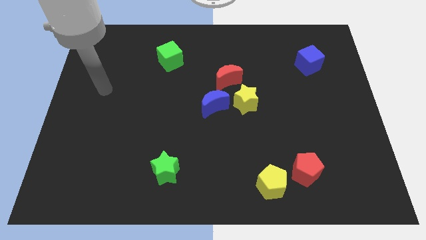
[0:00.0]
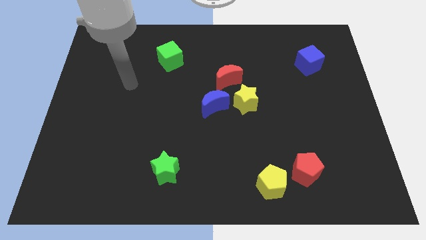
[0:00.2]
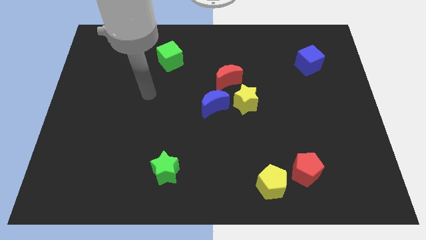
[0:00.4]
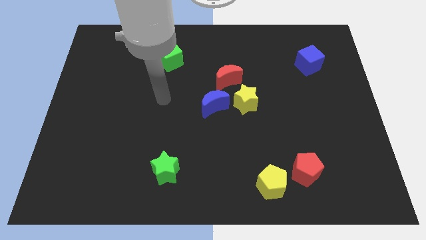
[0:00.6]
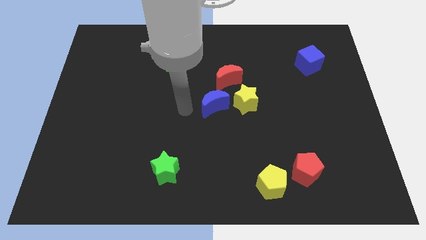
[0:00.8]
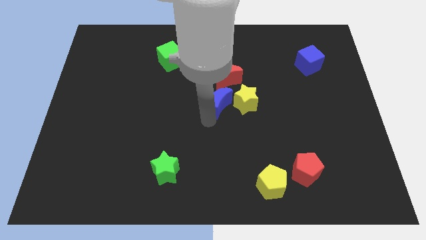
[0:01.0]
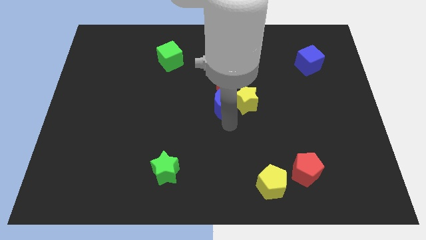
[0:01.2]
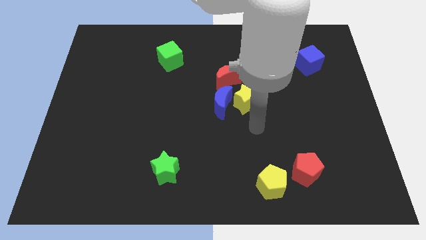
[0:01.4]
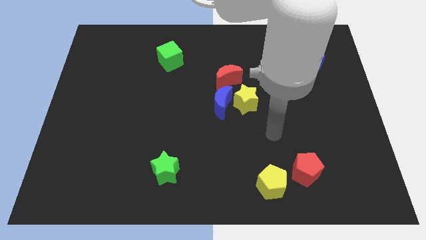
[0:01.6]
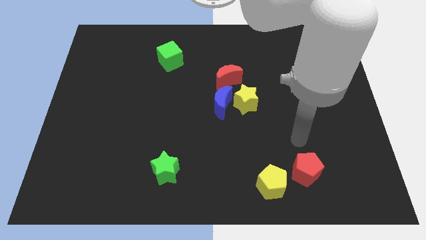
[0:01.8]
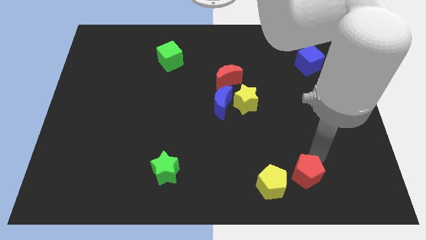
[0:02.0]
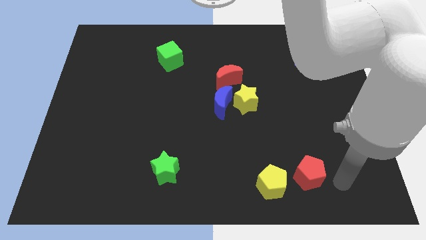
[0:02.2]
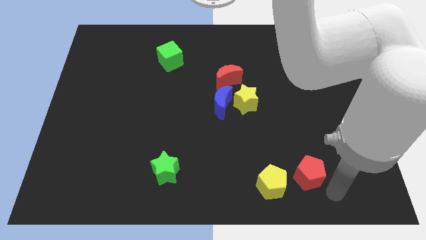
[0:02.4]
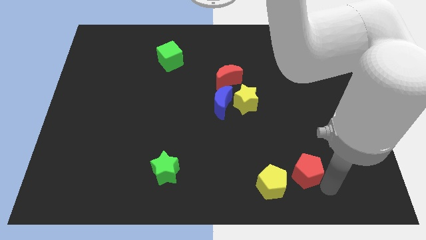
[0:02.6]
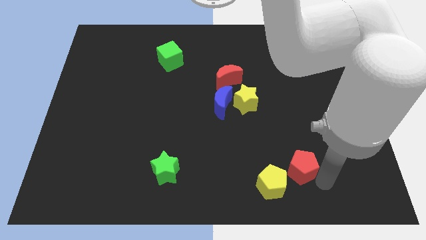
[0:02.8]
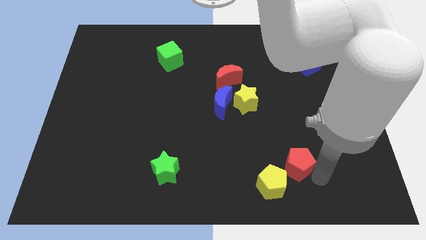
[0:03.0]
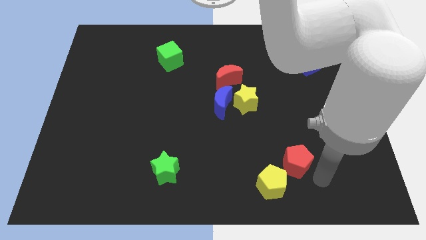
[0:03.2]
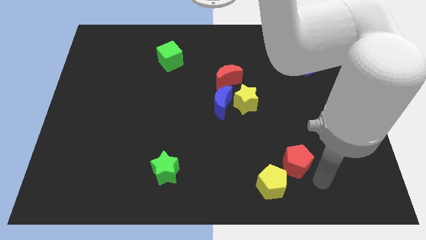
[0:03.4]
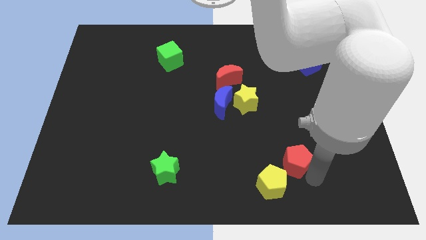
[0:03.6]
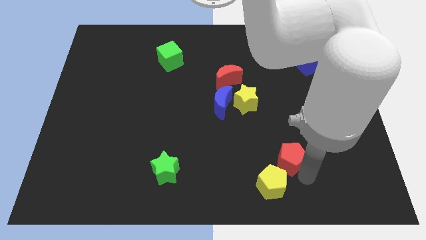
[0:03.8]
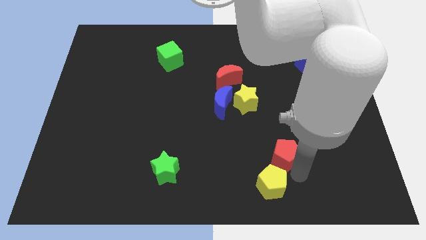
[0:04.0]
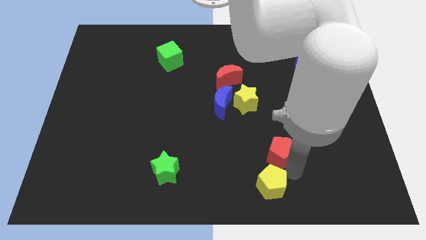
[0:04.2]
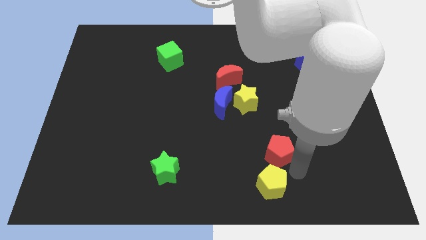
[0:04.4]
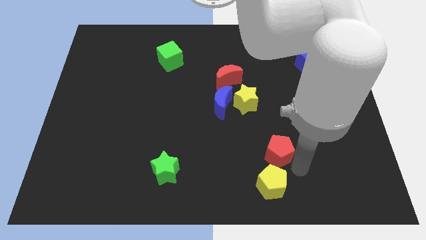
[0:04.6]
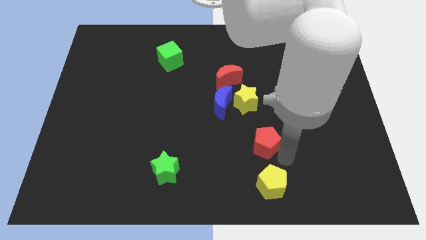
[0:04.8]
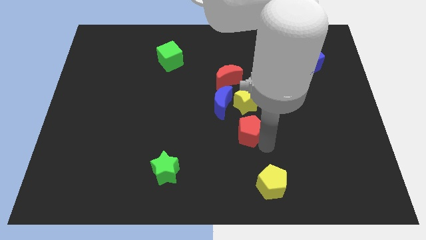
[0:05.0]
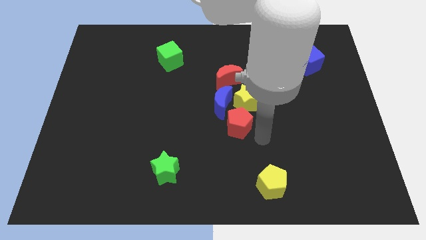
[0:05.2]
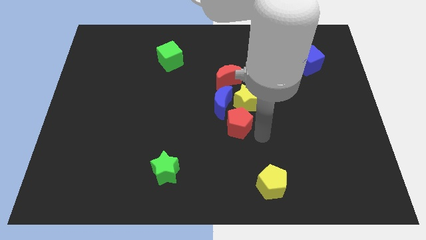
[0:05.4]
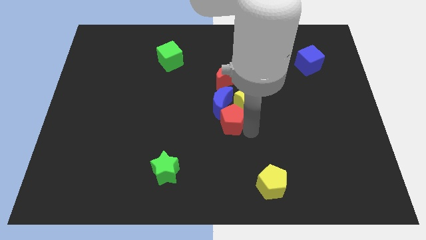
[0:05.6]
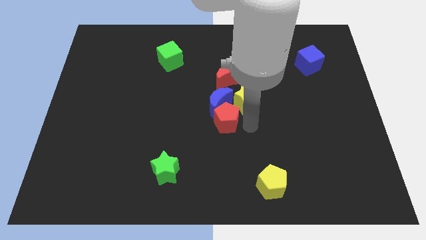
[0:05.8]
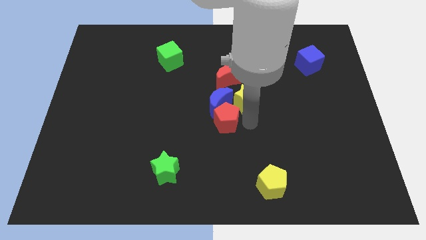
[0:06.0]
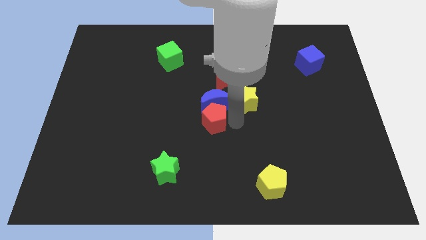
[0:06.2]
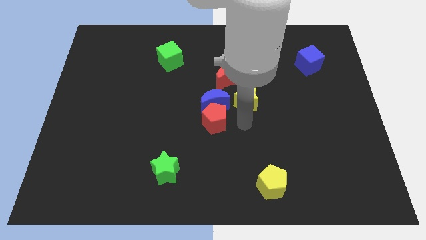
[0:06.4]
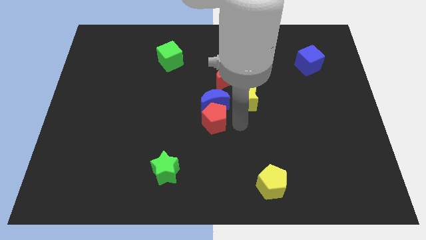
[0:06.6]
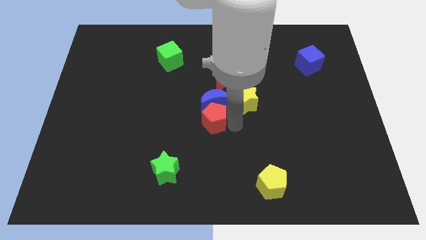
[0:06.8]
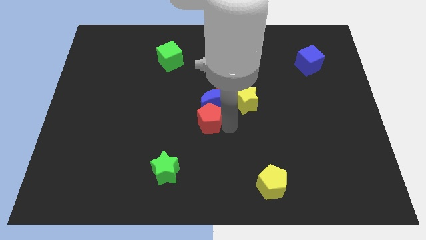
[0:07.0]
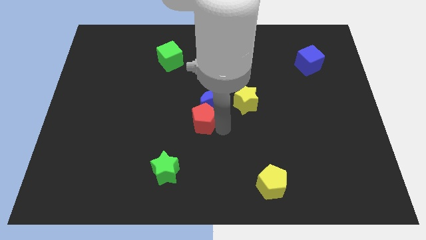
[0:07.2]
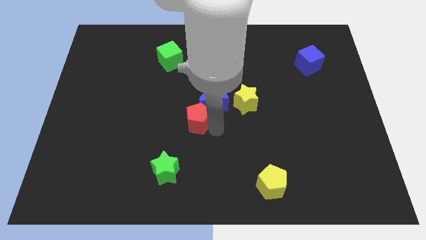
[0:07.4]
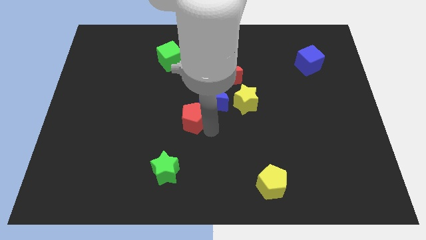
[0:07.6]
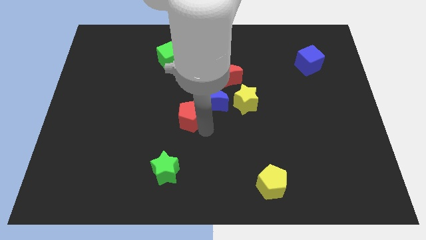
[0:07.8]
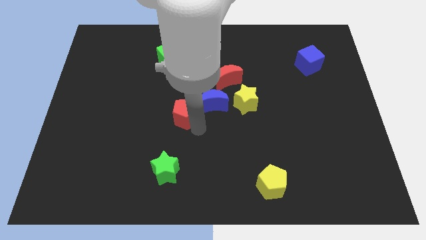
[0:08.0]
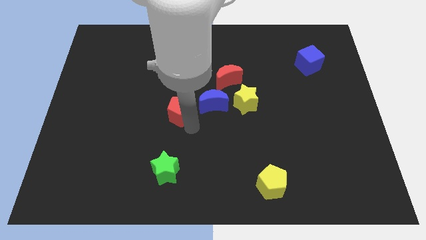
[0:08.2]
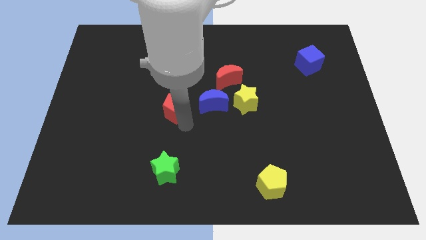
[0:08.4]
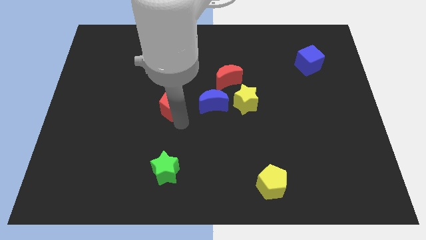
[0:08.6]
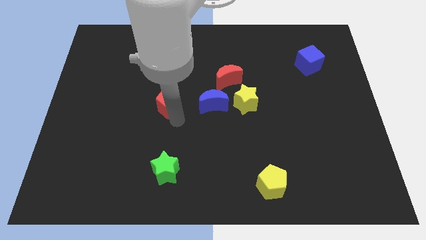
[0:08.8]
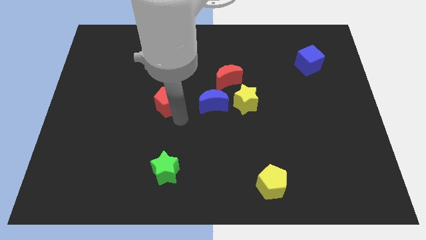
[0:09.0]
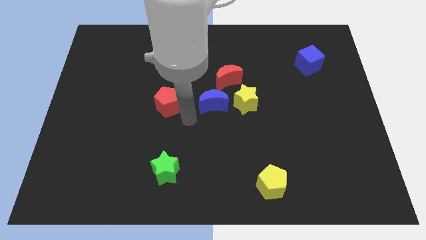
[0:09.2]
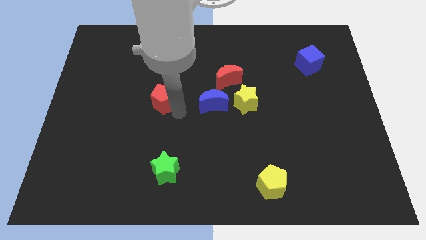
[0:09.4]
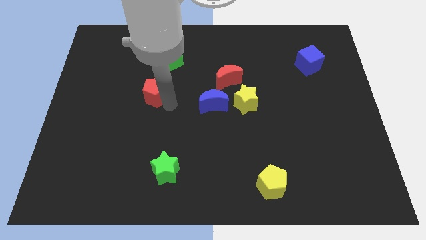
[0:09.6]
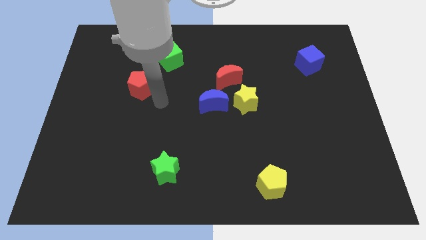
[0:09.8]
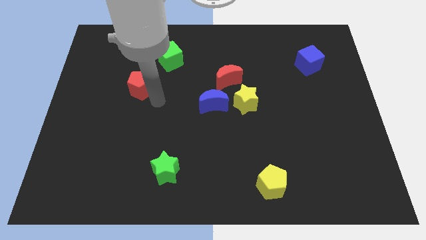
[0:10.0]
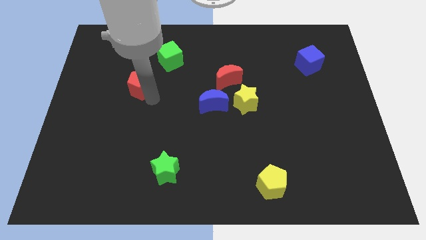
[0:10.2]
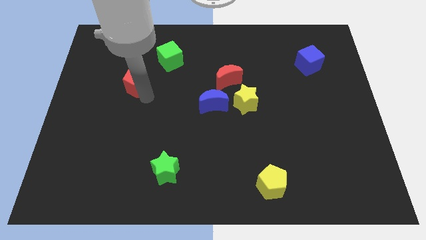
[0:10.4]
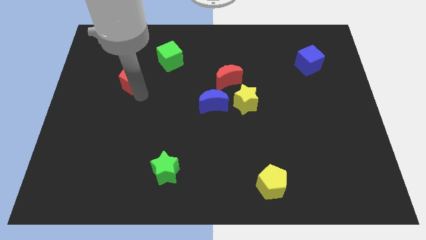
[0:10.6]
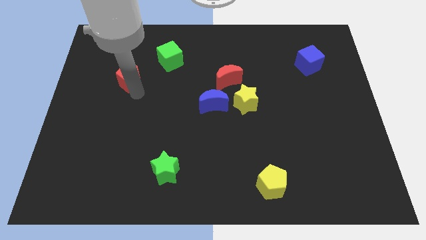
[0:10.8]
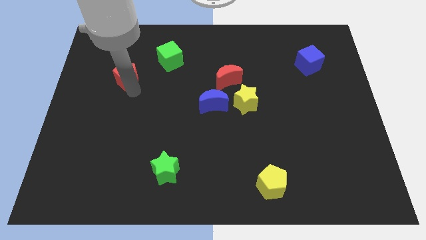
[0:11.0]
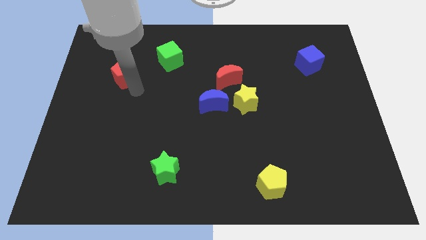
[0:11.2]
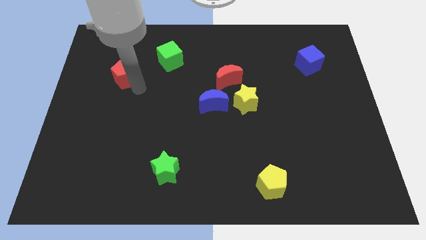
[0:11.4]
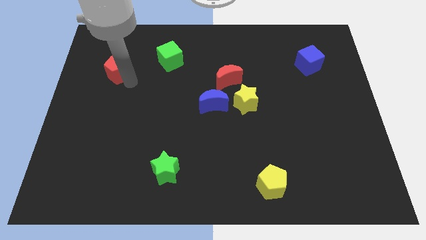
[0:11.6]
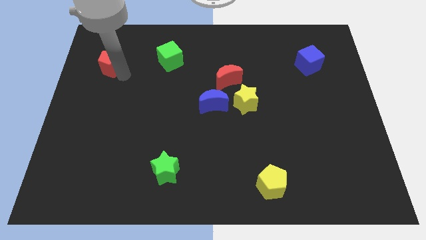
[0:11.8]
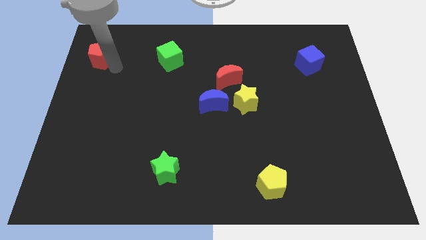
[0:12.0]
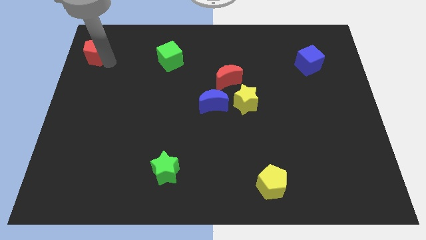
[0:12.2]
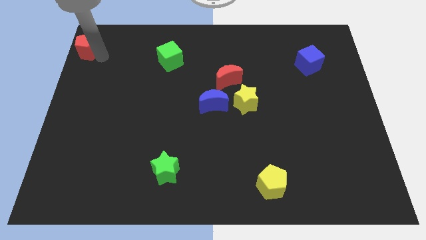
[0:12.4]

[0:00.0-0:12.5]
slide the red pentagon to the top left of the board
